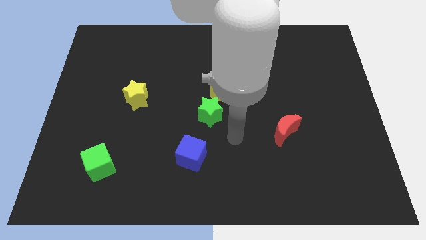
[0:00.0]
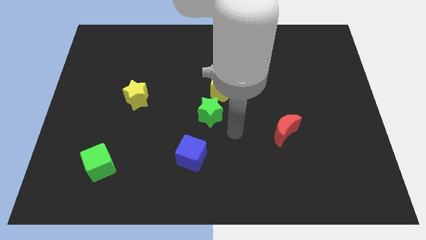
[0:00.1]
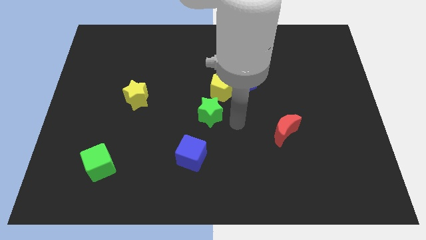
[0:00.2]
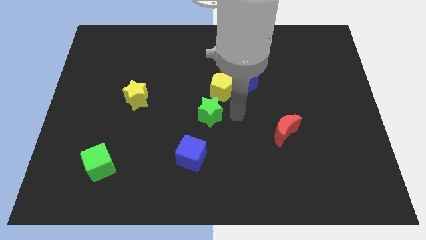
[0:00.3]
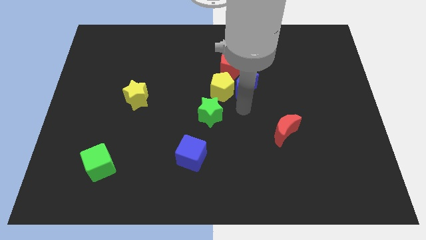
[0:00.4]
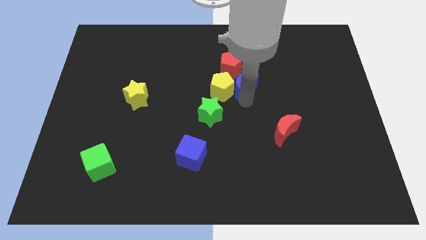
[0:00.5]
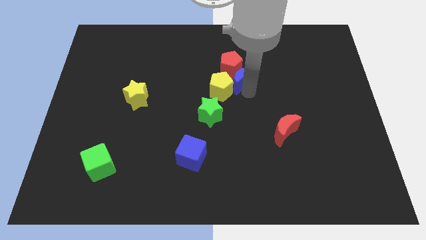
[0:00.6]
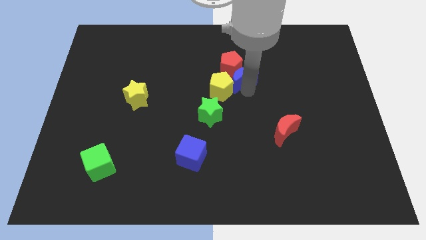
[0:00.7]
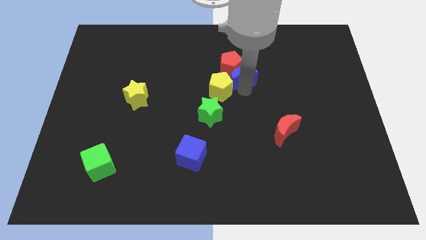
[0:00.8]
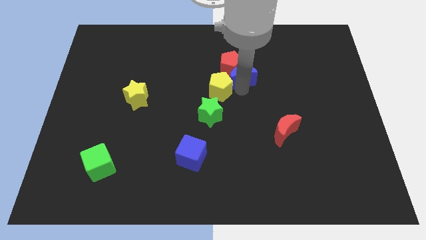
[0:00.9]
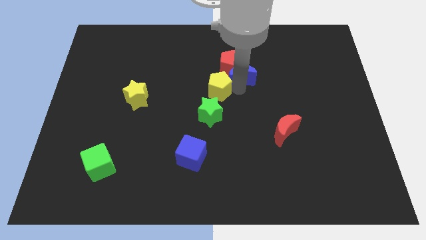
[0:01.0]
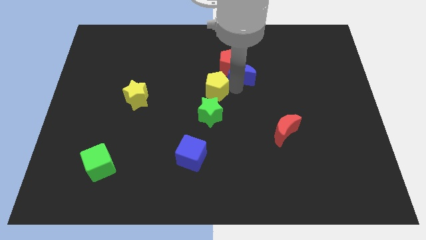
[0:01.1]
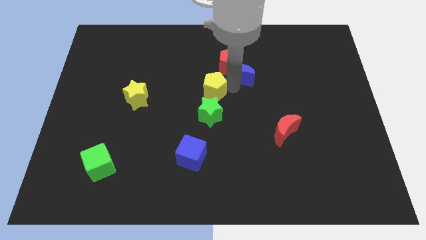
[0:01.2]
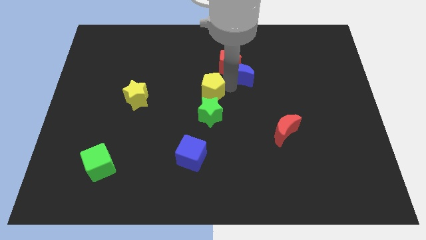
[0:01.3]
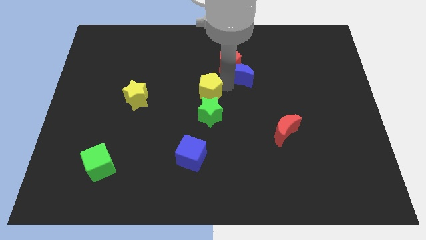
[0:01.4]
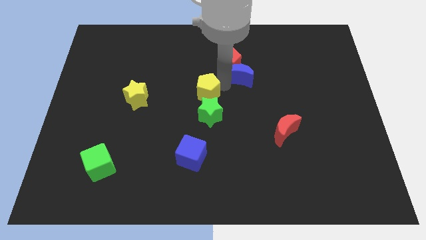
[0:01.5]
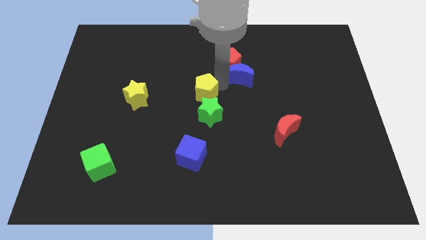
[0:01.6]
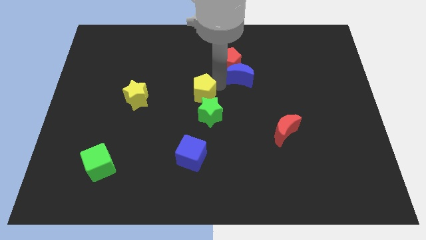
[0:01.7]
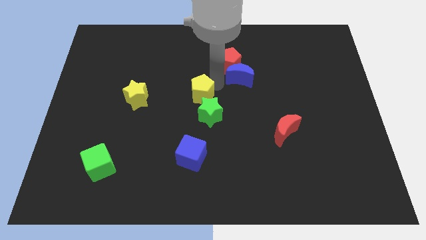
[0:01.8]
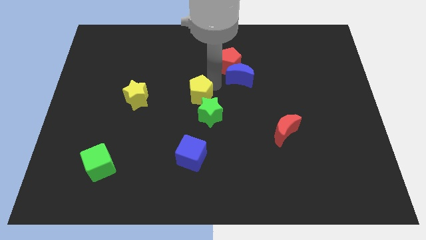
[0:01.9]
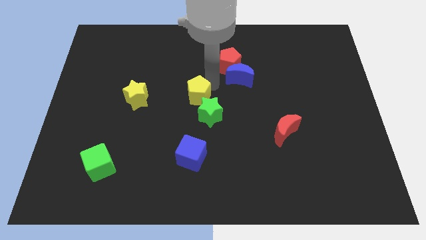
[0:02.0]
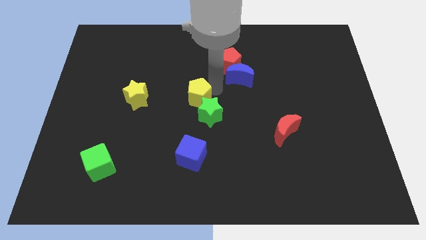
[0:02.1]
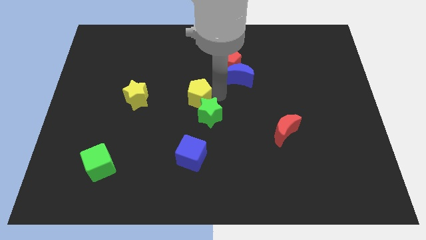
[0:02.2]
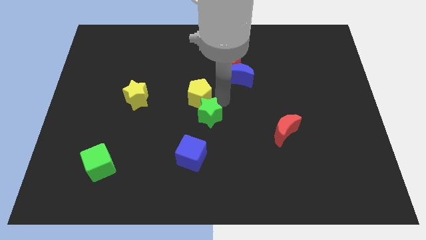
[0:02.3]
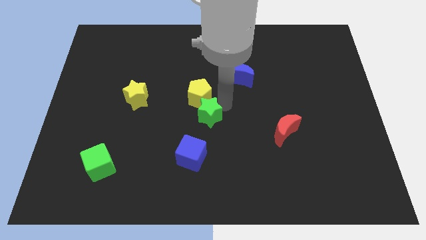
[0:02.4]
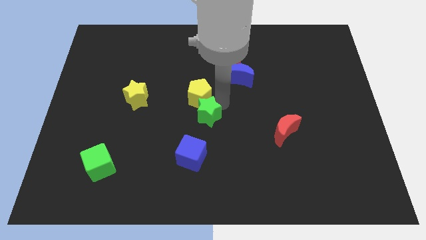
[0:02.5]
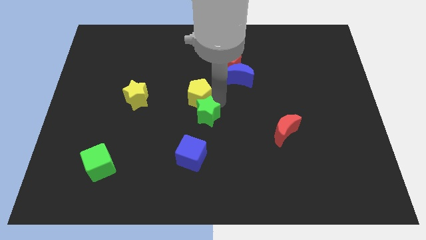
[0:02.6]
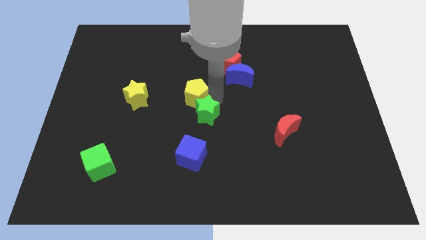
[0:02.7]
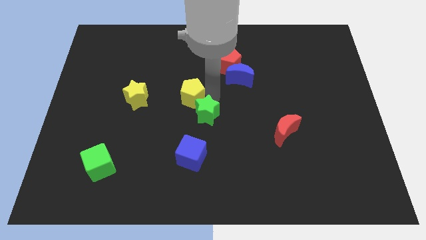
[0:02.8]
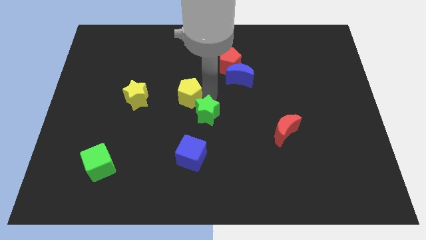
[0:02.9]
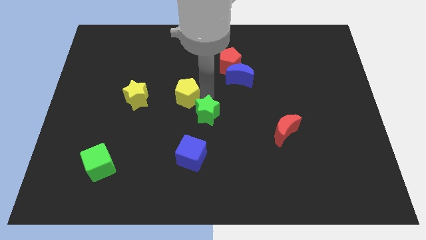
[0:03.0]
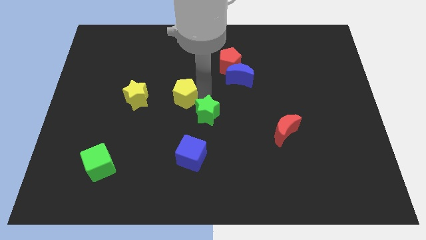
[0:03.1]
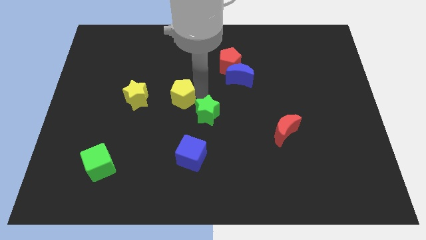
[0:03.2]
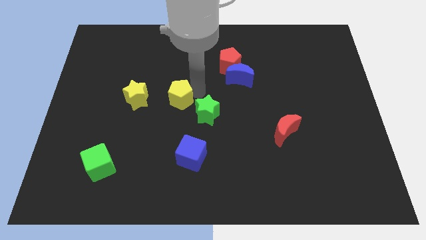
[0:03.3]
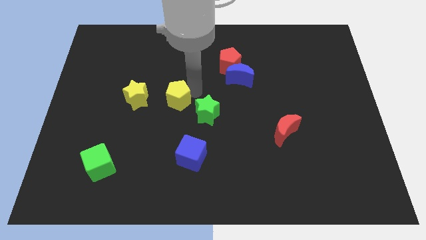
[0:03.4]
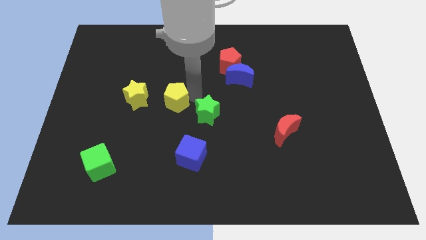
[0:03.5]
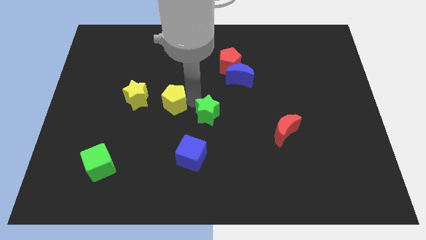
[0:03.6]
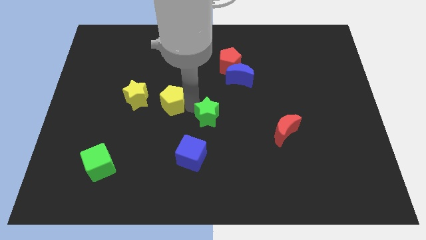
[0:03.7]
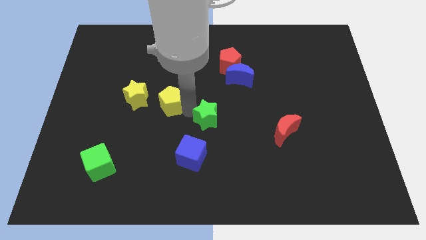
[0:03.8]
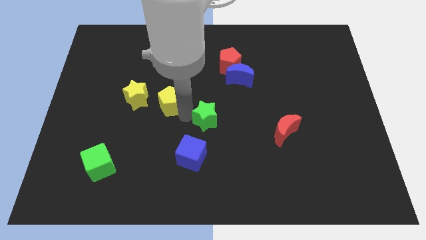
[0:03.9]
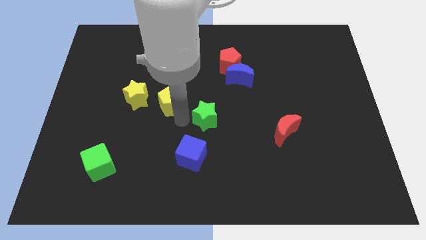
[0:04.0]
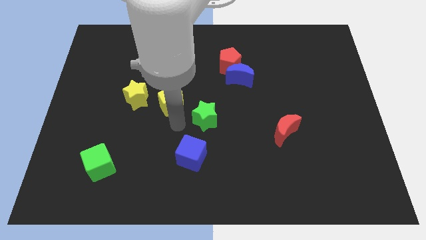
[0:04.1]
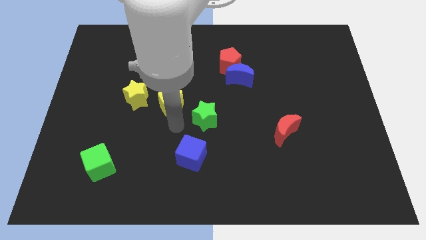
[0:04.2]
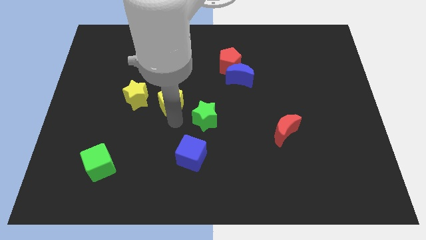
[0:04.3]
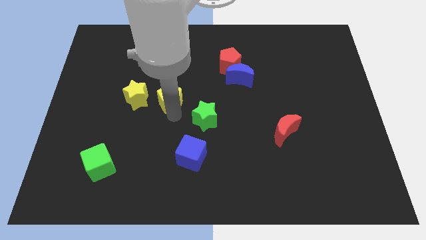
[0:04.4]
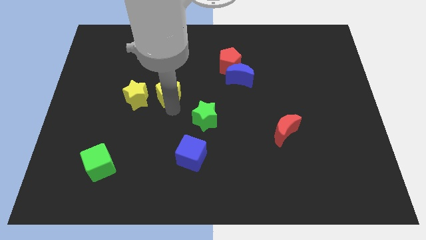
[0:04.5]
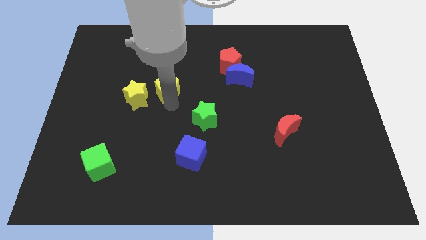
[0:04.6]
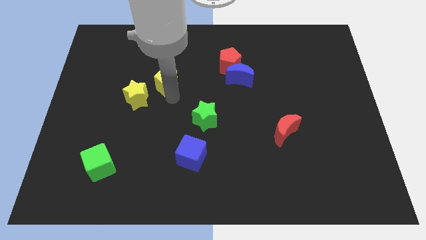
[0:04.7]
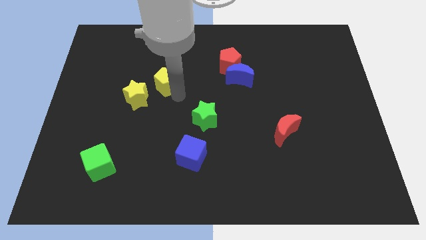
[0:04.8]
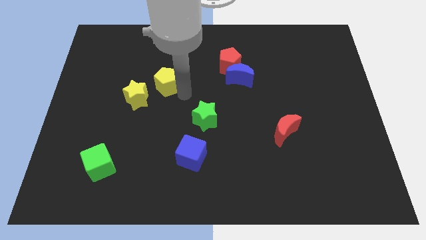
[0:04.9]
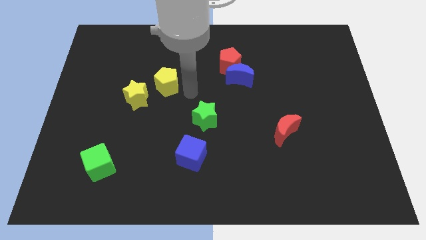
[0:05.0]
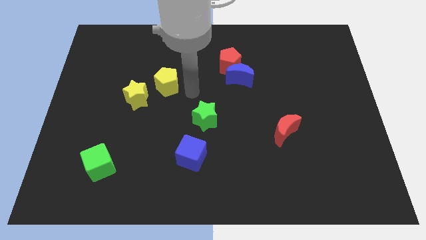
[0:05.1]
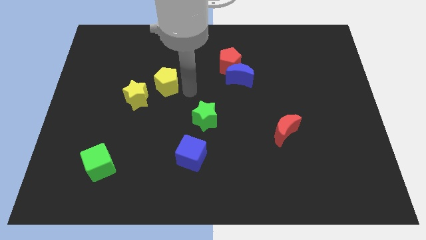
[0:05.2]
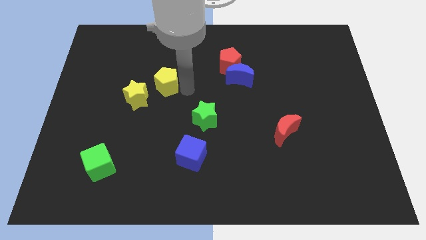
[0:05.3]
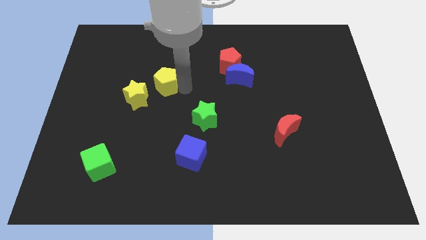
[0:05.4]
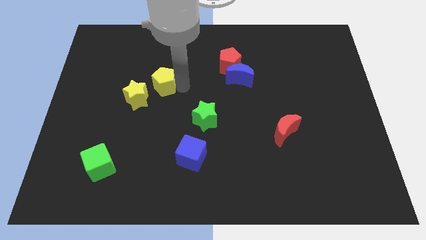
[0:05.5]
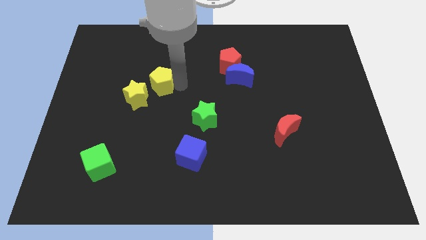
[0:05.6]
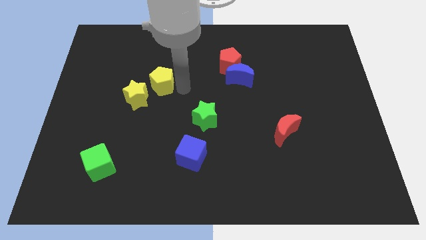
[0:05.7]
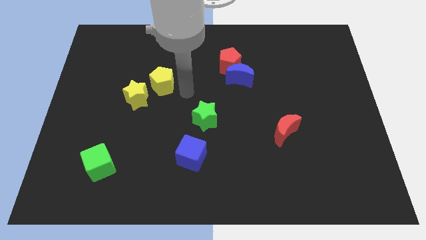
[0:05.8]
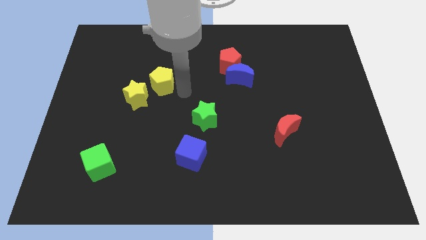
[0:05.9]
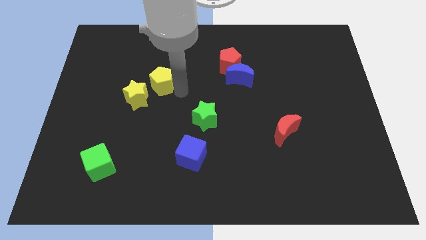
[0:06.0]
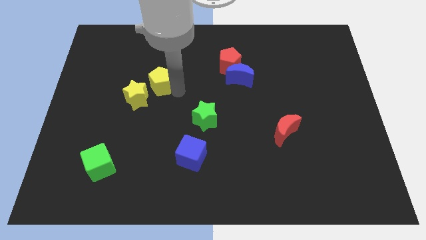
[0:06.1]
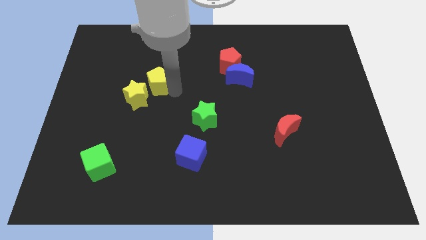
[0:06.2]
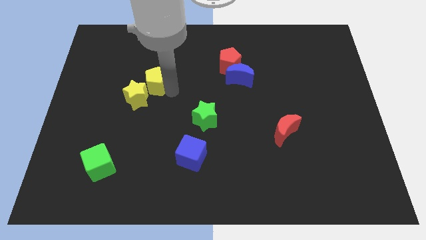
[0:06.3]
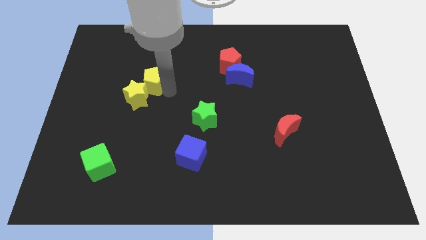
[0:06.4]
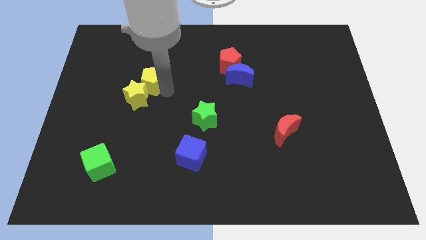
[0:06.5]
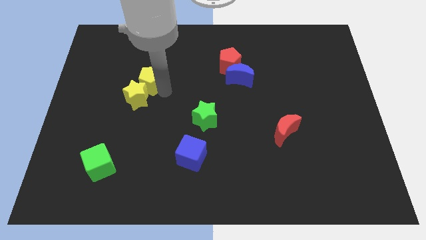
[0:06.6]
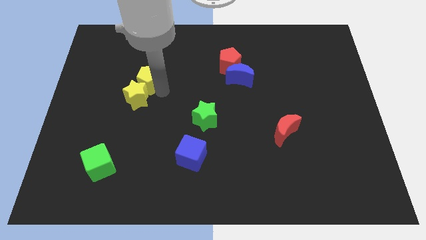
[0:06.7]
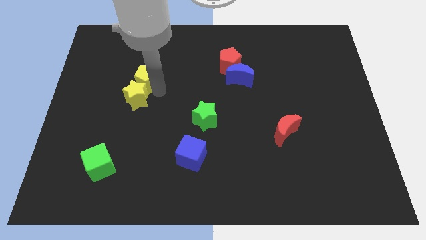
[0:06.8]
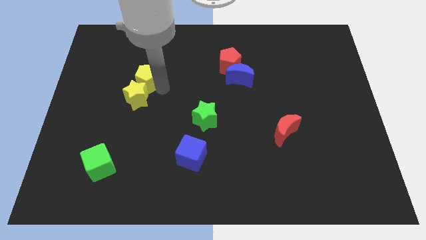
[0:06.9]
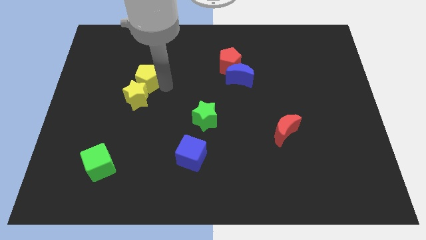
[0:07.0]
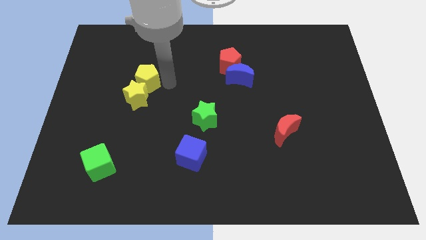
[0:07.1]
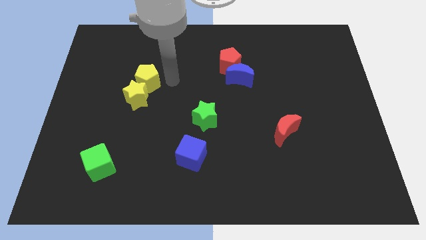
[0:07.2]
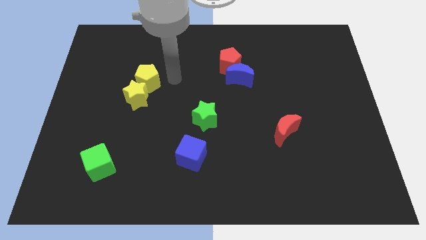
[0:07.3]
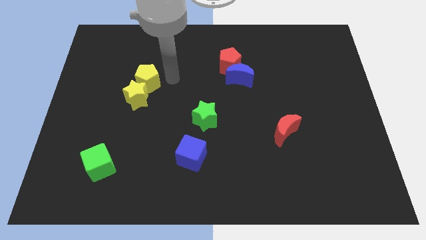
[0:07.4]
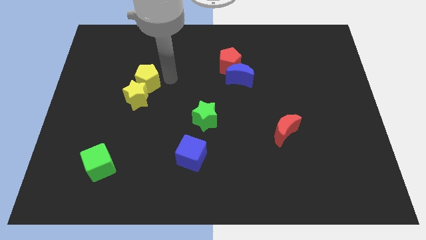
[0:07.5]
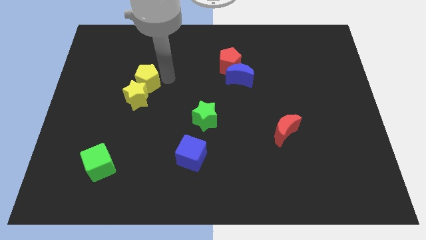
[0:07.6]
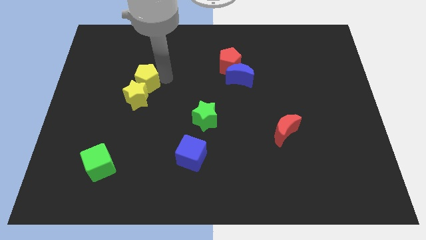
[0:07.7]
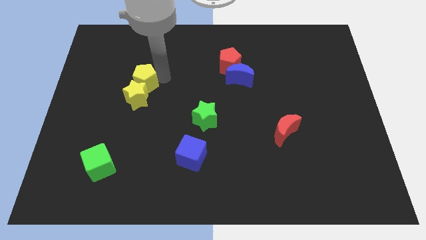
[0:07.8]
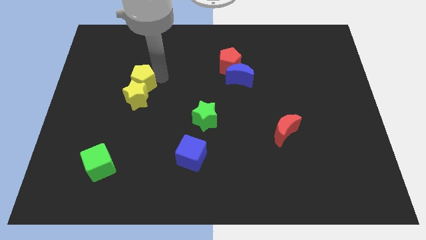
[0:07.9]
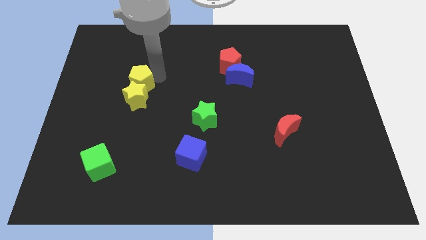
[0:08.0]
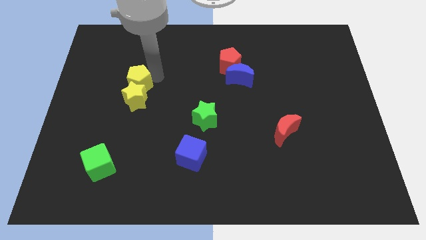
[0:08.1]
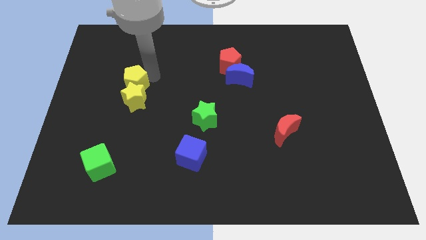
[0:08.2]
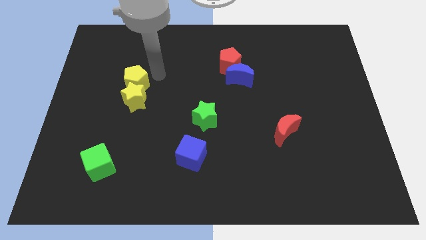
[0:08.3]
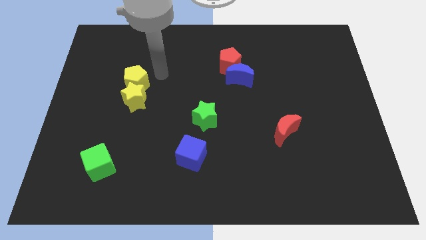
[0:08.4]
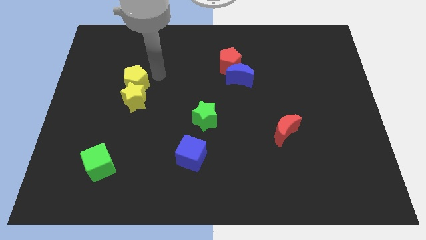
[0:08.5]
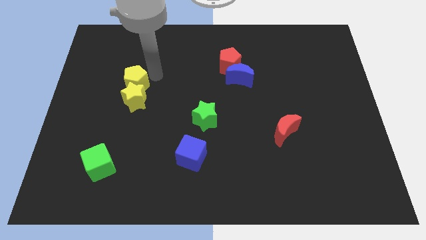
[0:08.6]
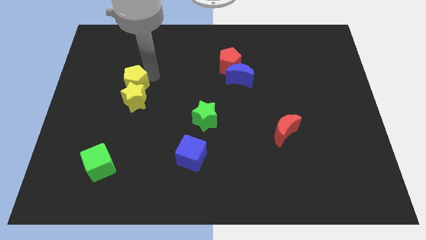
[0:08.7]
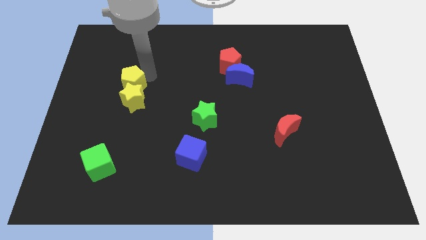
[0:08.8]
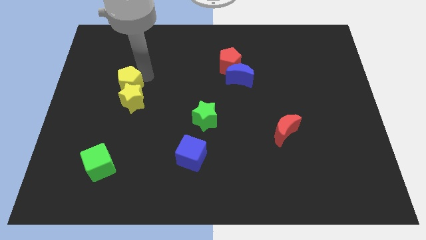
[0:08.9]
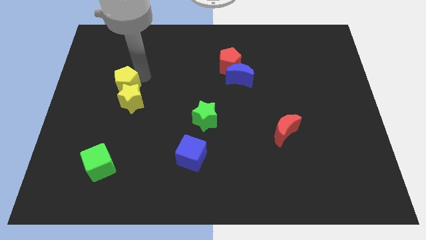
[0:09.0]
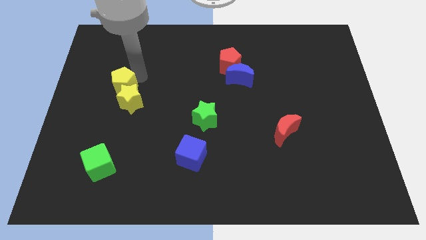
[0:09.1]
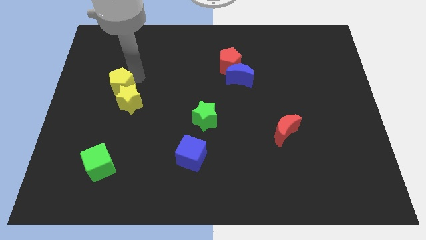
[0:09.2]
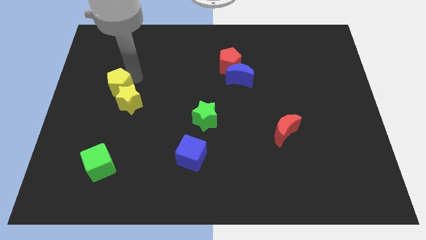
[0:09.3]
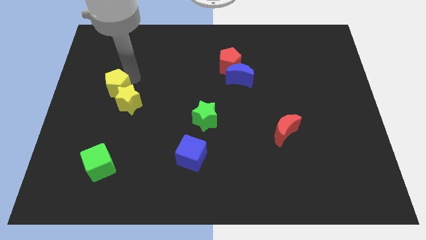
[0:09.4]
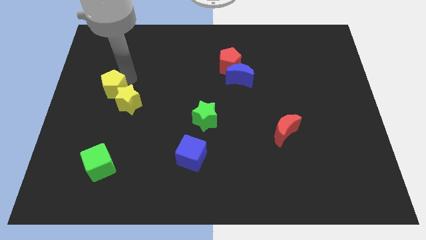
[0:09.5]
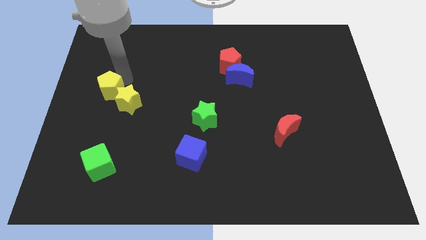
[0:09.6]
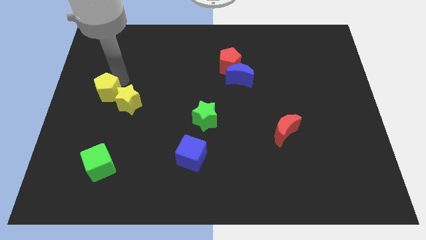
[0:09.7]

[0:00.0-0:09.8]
push the yellow pentagon to the left side of the board
